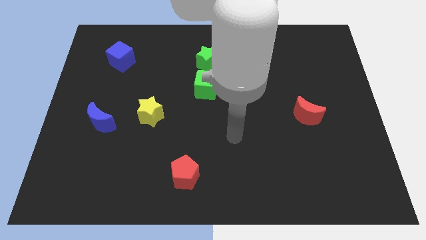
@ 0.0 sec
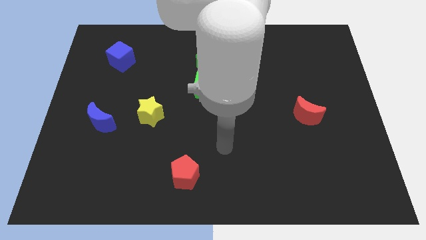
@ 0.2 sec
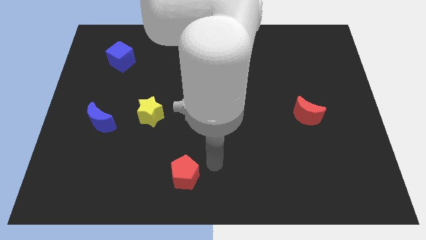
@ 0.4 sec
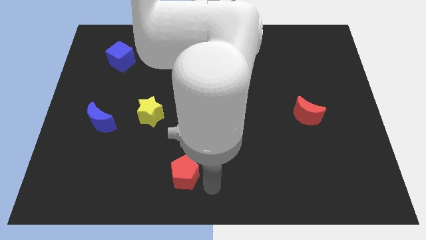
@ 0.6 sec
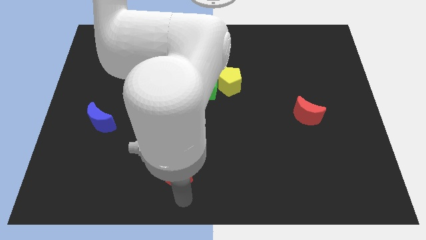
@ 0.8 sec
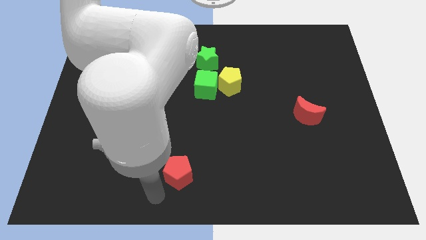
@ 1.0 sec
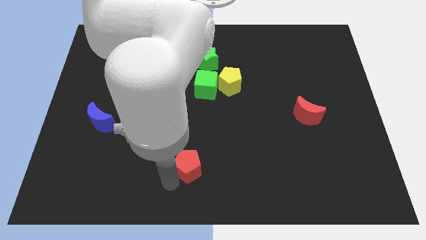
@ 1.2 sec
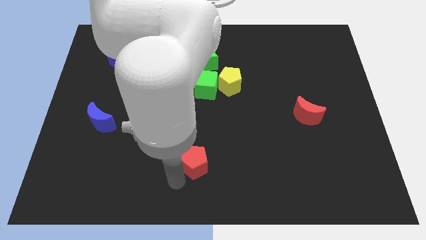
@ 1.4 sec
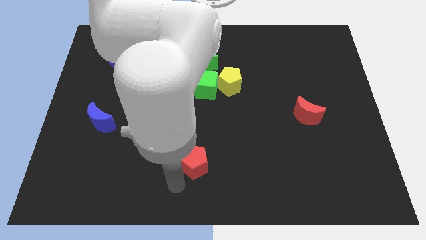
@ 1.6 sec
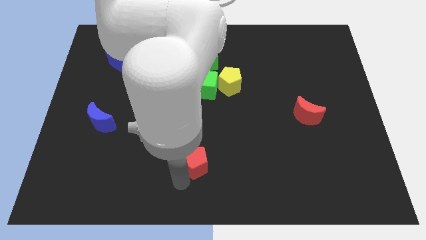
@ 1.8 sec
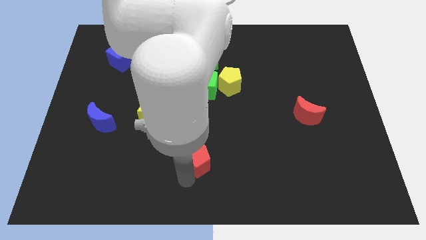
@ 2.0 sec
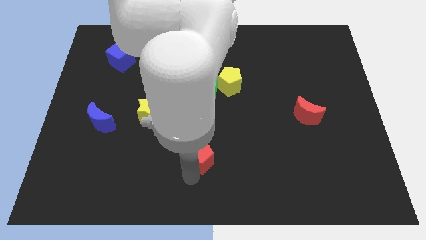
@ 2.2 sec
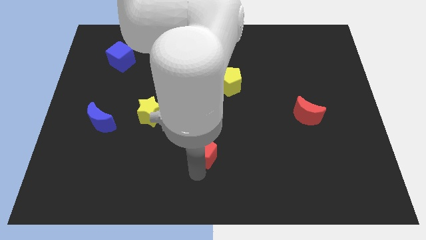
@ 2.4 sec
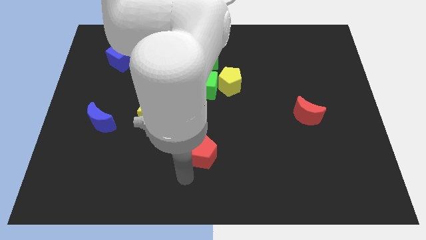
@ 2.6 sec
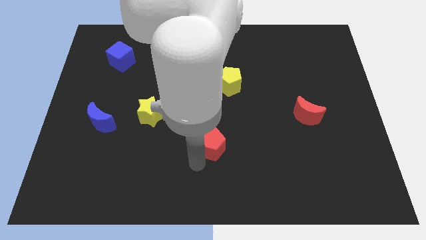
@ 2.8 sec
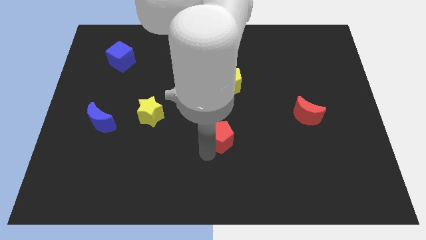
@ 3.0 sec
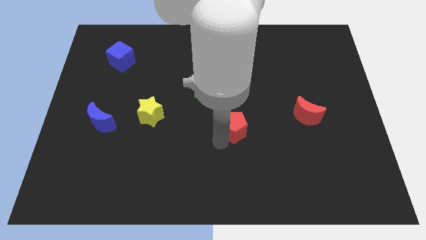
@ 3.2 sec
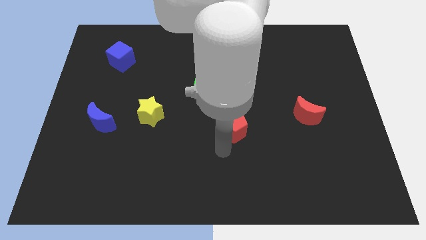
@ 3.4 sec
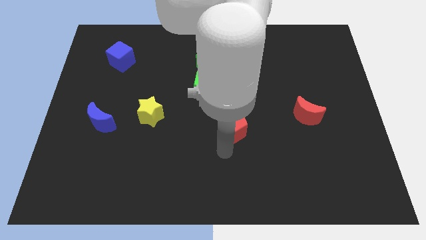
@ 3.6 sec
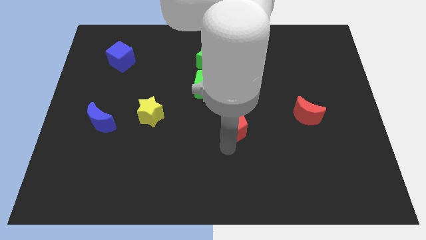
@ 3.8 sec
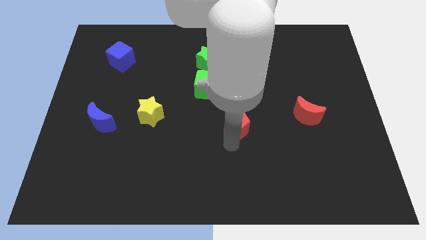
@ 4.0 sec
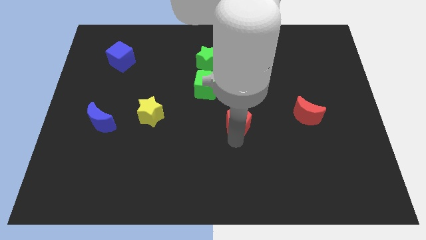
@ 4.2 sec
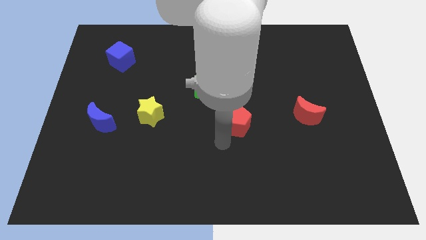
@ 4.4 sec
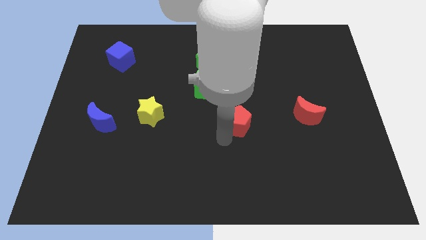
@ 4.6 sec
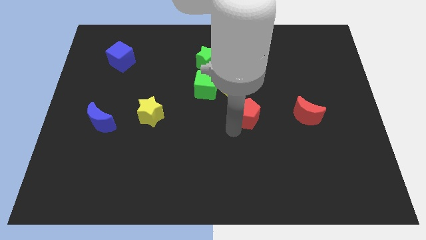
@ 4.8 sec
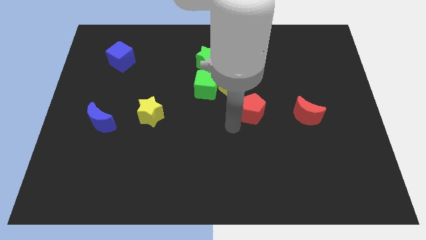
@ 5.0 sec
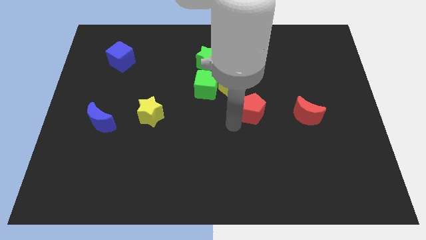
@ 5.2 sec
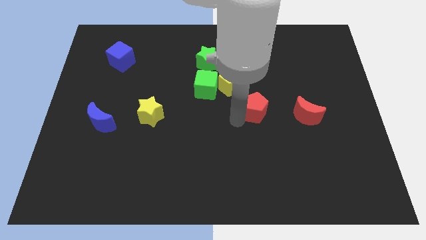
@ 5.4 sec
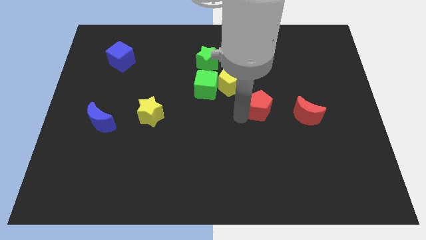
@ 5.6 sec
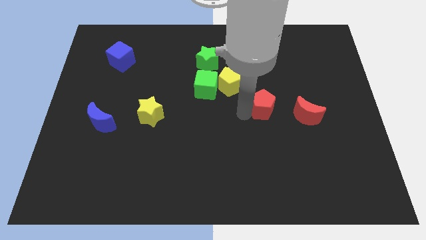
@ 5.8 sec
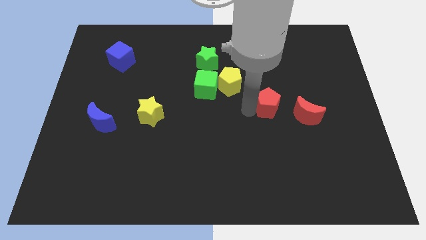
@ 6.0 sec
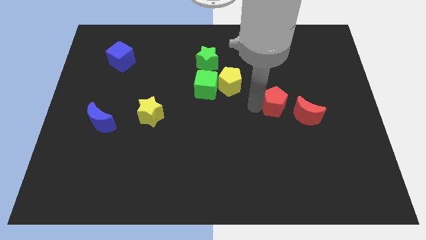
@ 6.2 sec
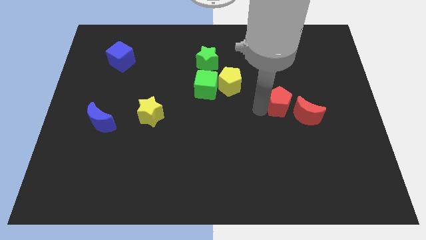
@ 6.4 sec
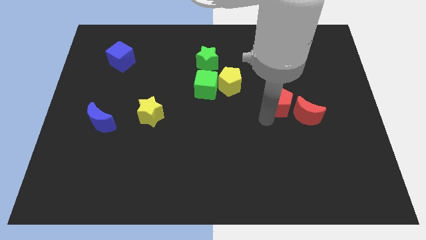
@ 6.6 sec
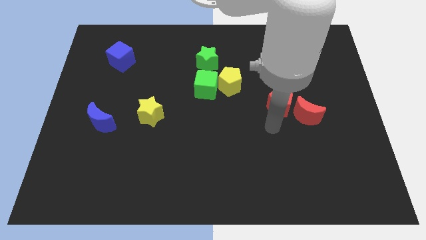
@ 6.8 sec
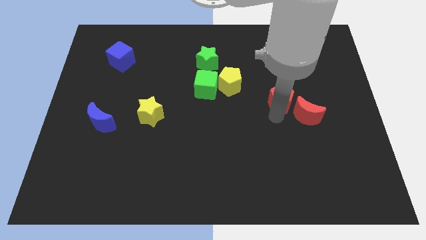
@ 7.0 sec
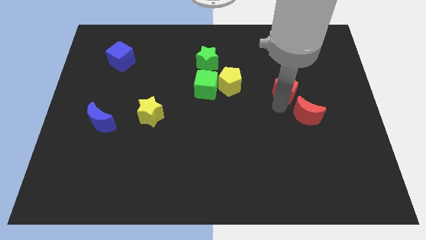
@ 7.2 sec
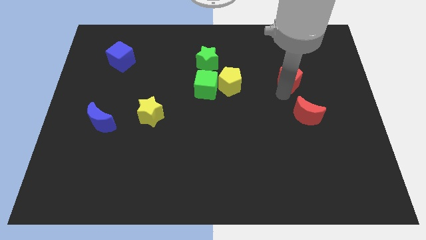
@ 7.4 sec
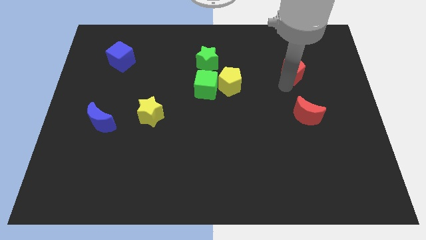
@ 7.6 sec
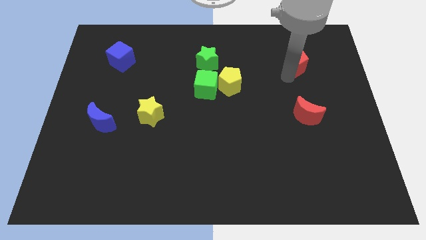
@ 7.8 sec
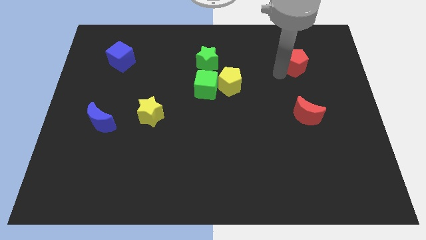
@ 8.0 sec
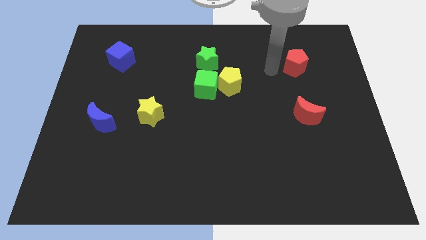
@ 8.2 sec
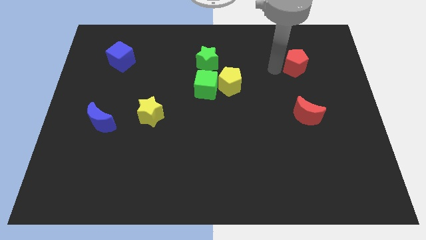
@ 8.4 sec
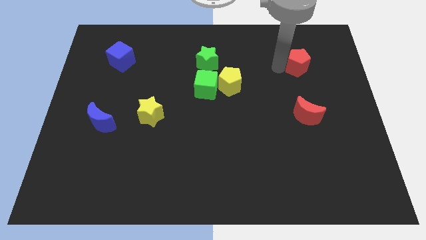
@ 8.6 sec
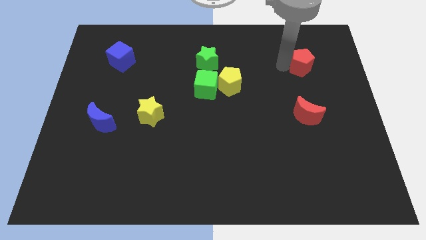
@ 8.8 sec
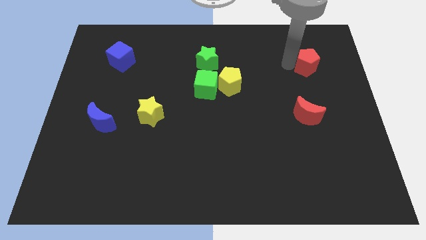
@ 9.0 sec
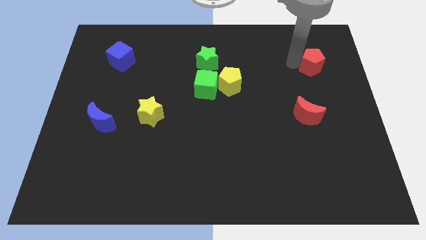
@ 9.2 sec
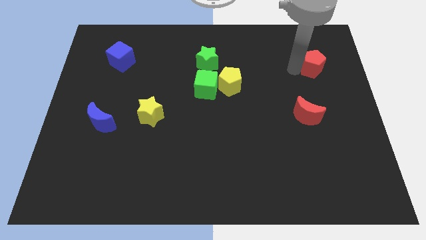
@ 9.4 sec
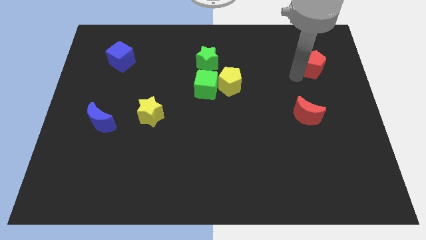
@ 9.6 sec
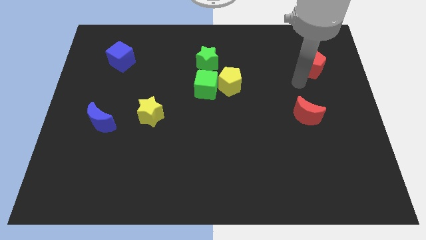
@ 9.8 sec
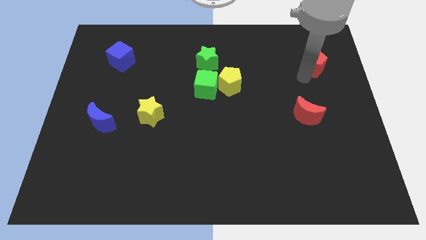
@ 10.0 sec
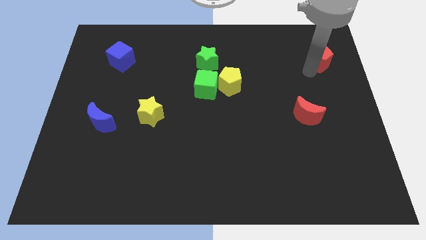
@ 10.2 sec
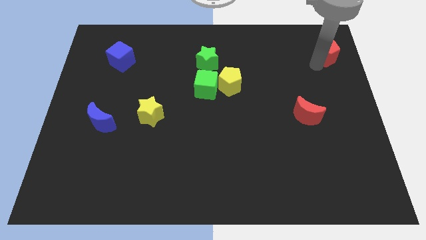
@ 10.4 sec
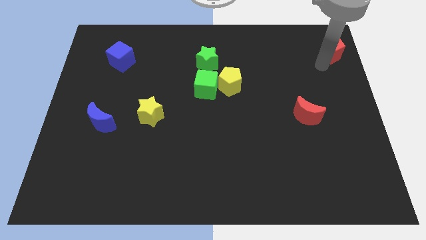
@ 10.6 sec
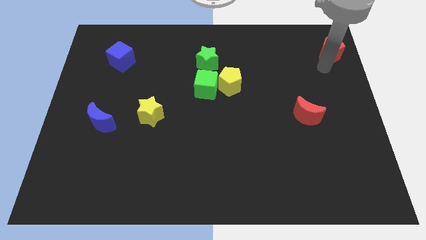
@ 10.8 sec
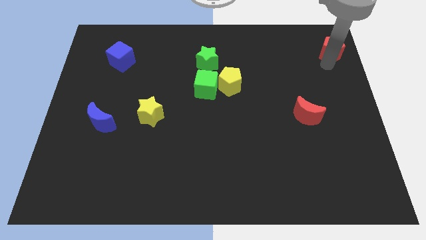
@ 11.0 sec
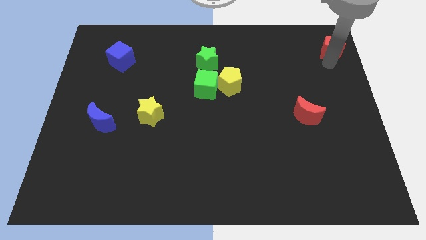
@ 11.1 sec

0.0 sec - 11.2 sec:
slide the red pentagon to the top right corner

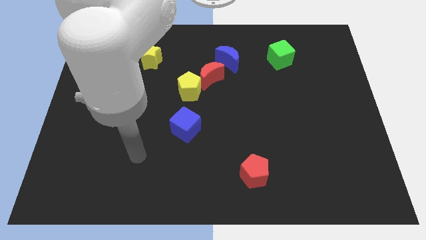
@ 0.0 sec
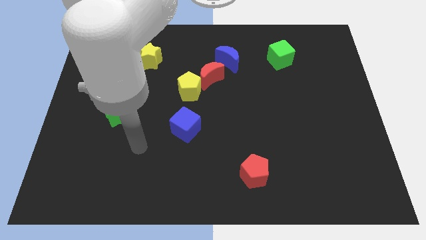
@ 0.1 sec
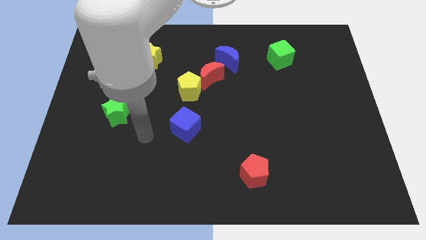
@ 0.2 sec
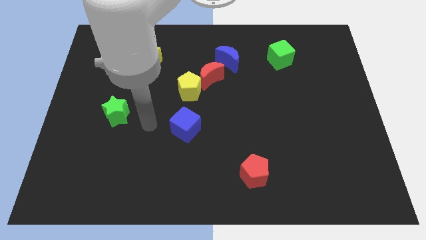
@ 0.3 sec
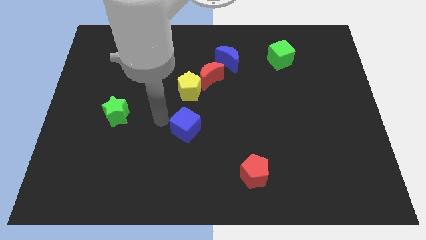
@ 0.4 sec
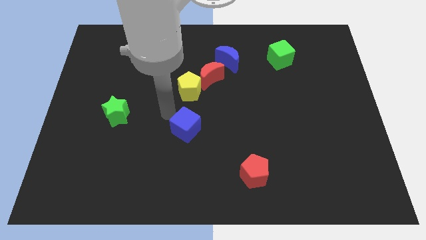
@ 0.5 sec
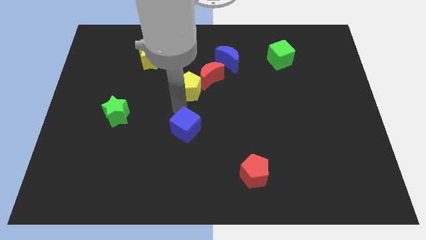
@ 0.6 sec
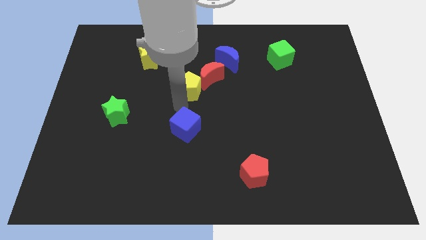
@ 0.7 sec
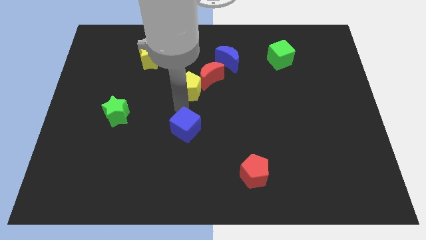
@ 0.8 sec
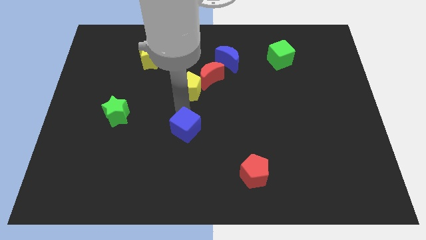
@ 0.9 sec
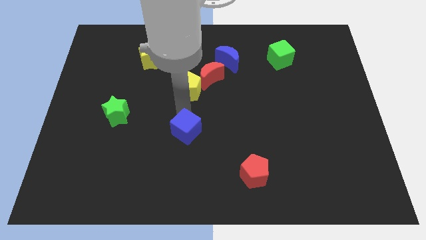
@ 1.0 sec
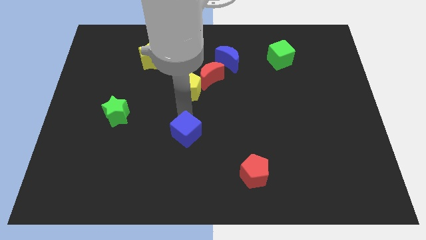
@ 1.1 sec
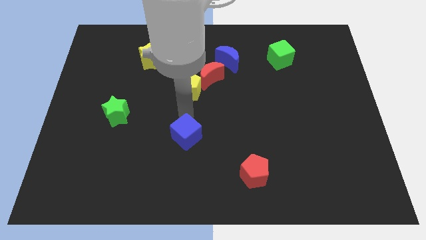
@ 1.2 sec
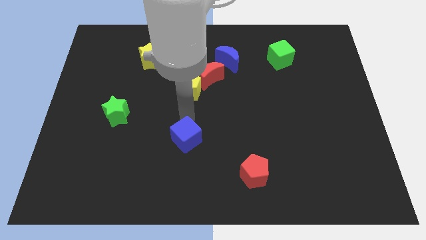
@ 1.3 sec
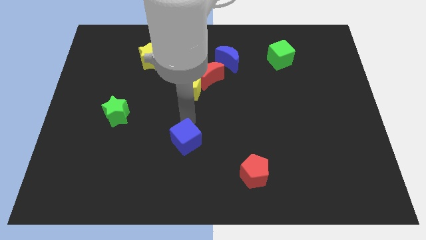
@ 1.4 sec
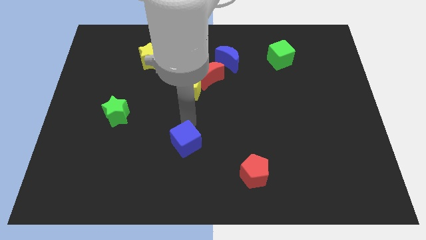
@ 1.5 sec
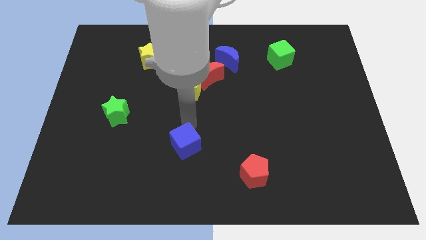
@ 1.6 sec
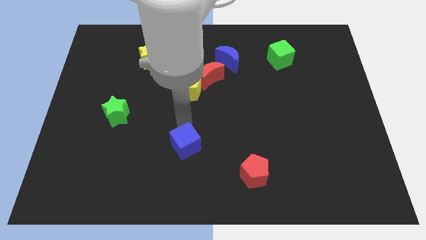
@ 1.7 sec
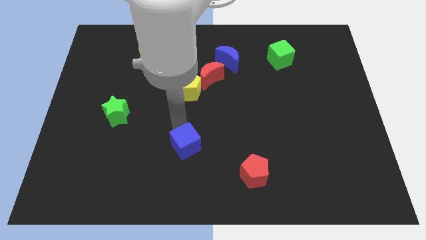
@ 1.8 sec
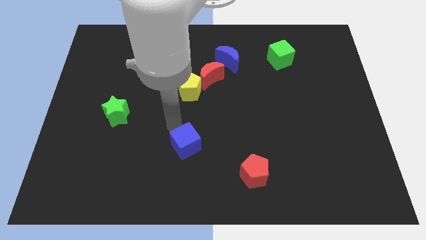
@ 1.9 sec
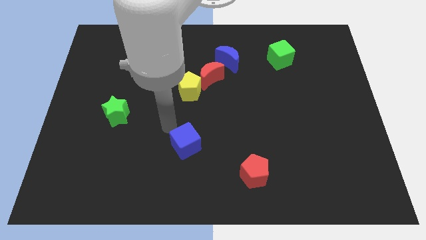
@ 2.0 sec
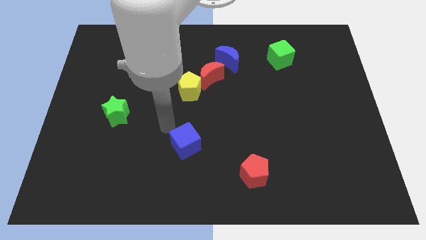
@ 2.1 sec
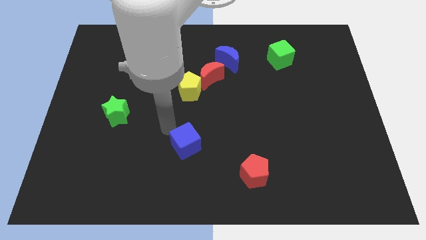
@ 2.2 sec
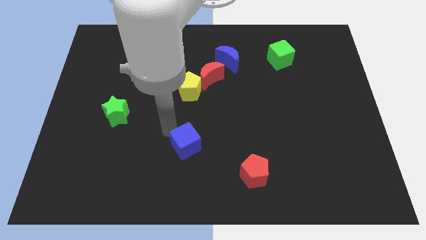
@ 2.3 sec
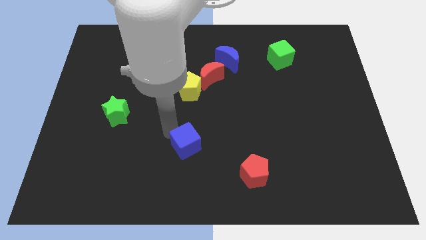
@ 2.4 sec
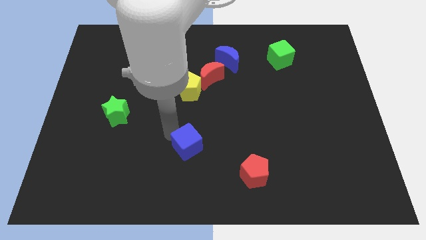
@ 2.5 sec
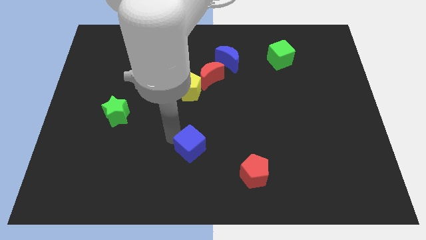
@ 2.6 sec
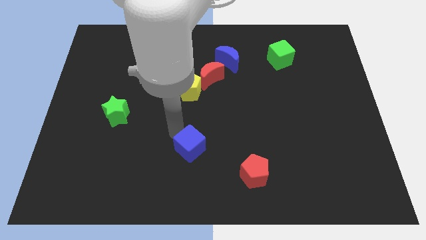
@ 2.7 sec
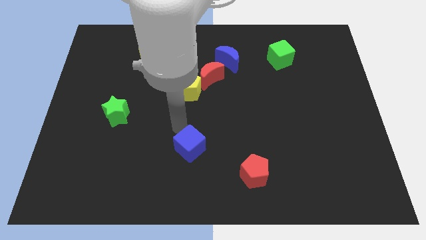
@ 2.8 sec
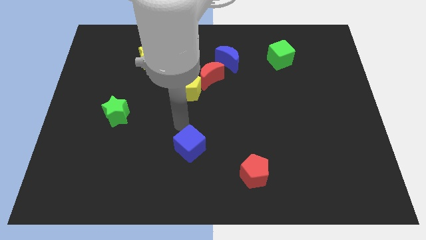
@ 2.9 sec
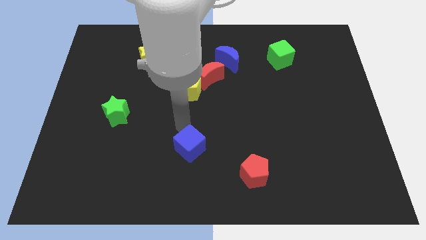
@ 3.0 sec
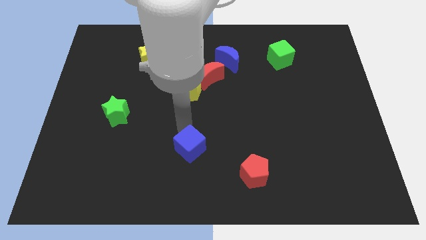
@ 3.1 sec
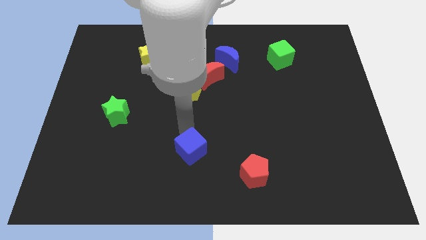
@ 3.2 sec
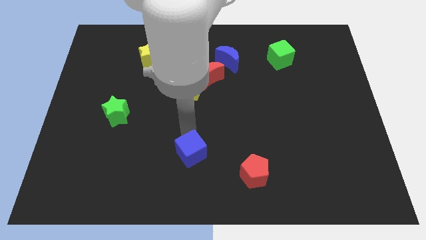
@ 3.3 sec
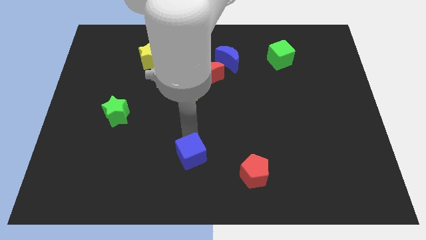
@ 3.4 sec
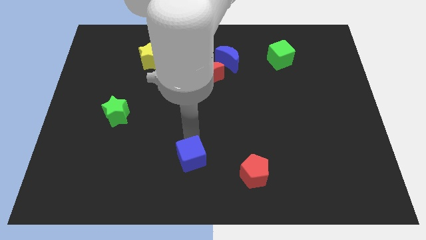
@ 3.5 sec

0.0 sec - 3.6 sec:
push the blue cube to the bottom
